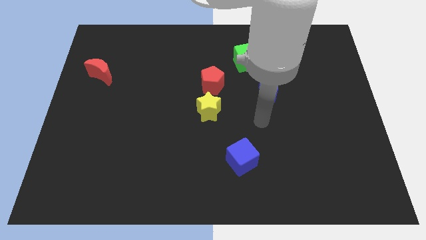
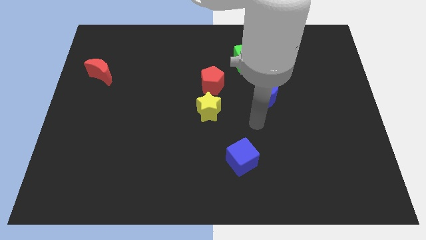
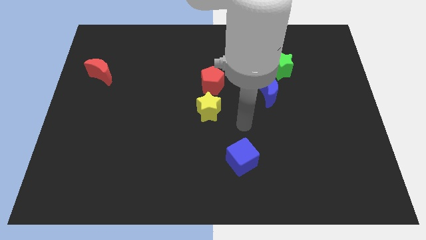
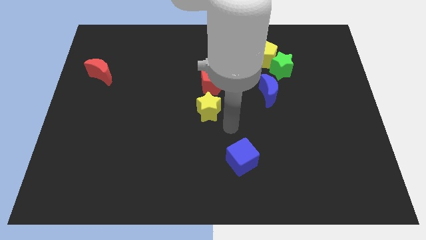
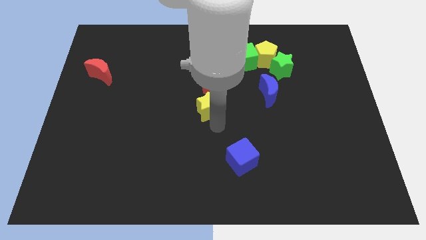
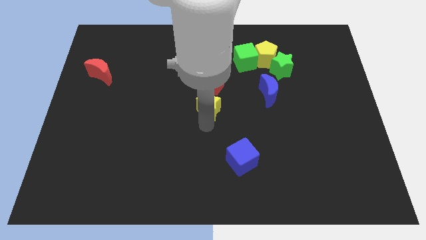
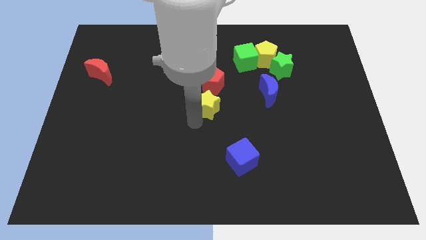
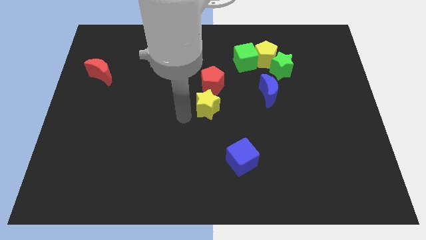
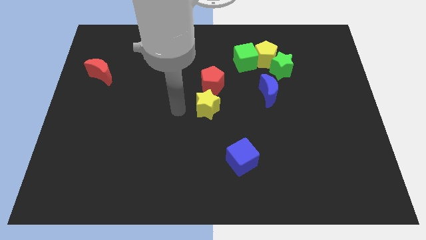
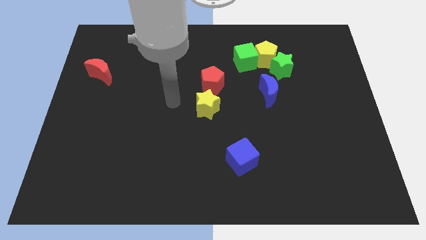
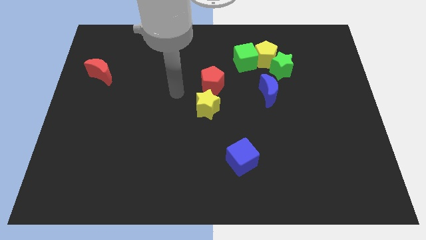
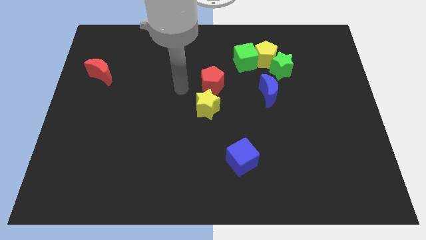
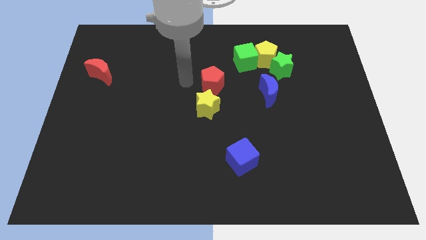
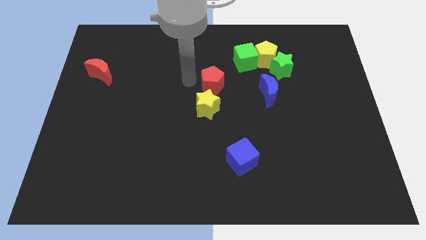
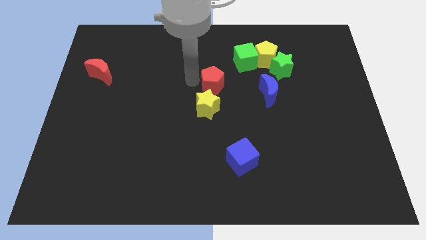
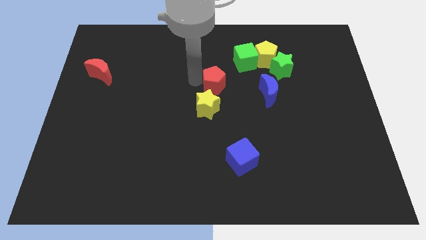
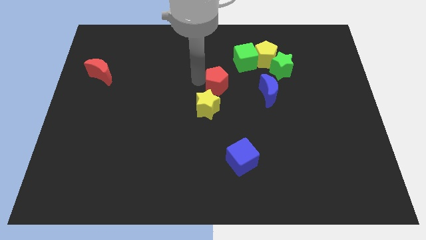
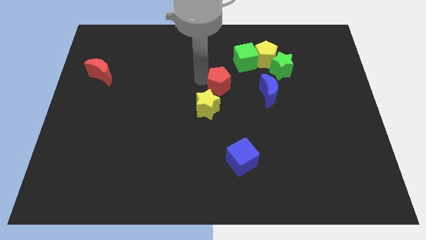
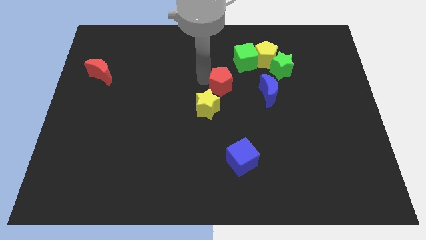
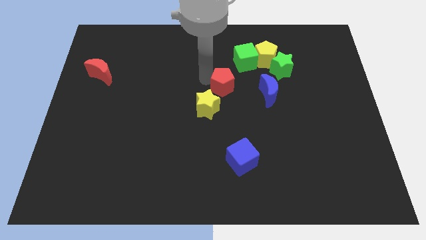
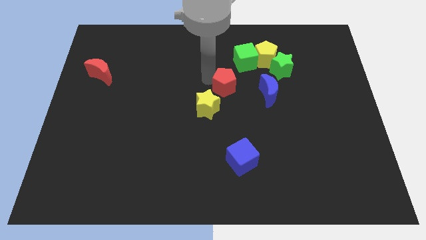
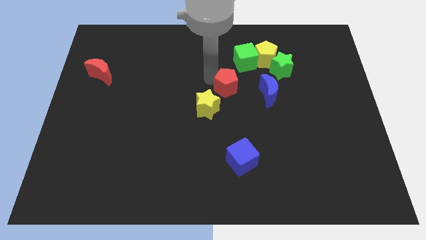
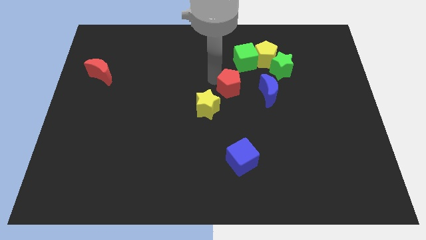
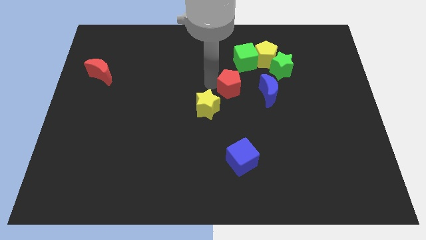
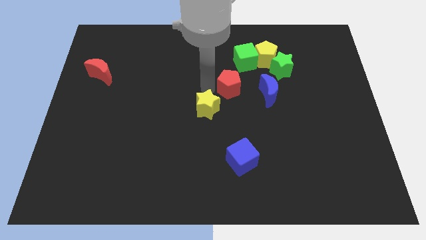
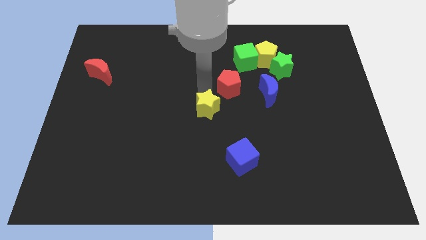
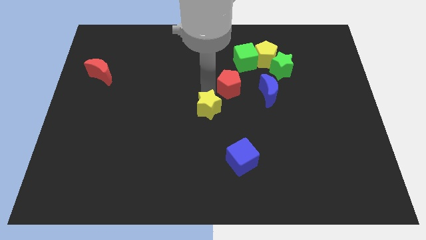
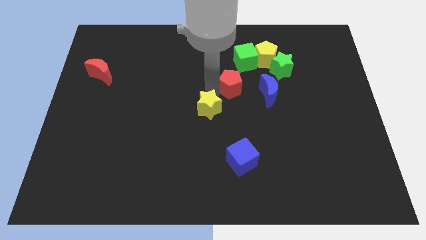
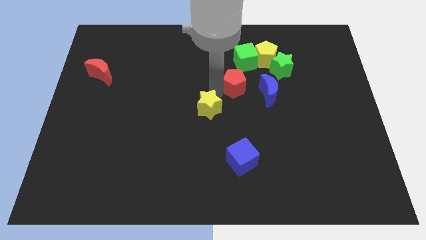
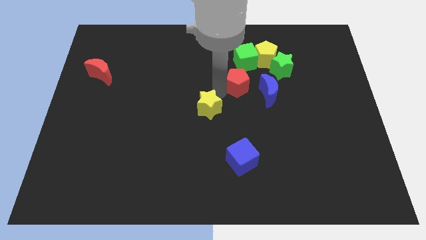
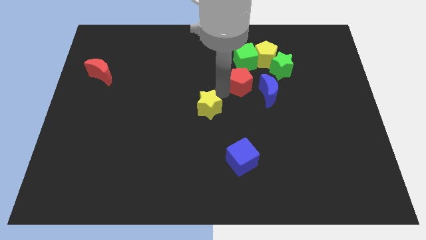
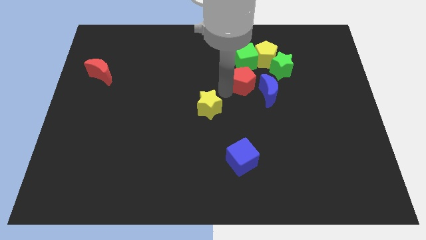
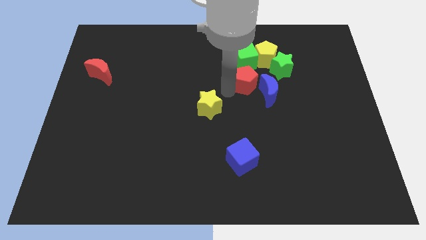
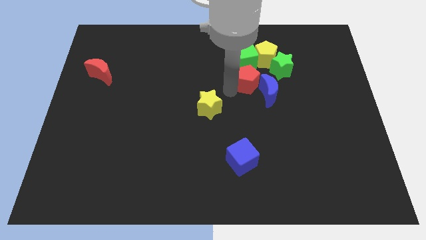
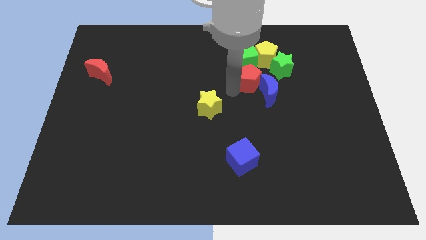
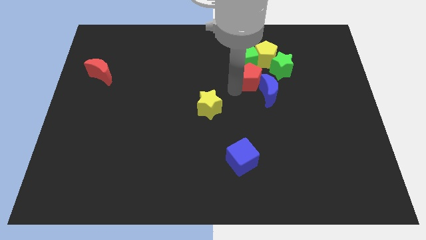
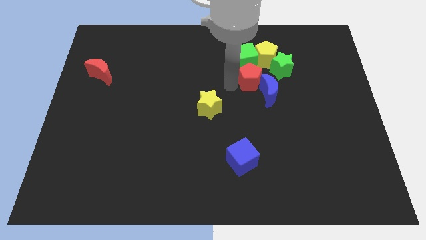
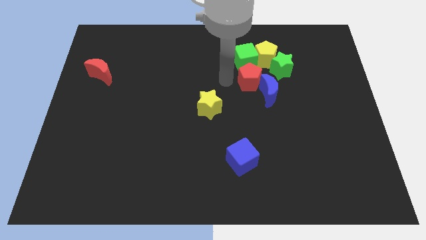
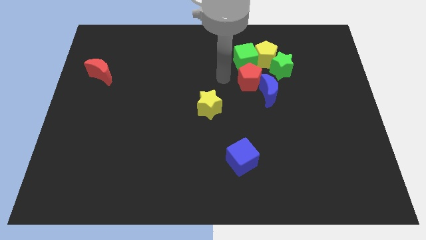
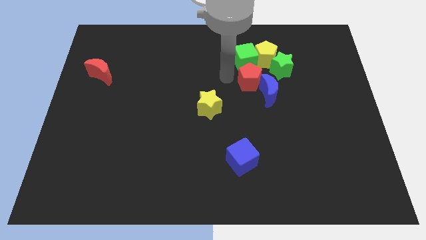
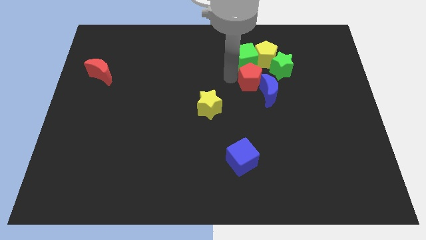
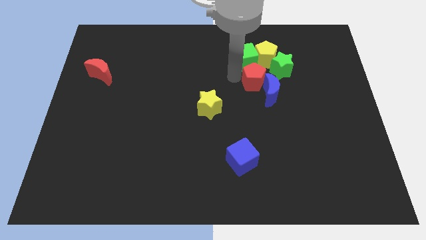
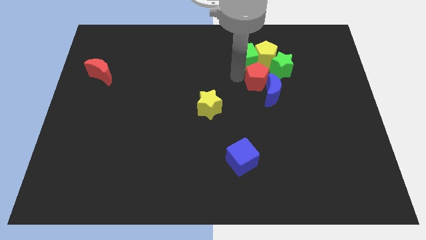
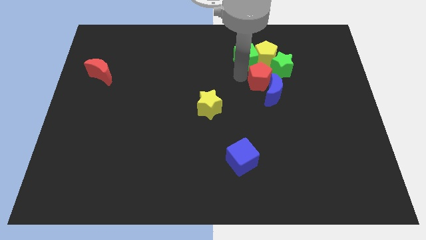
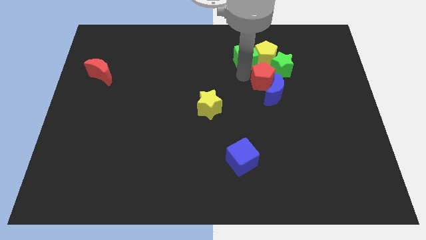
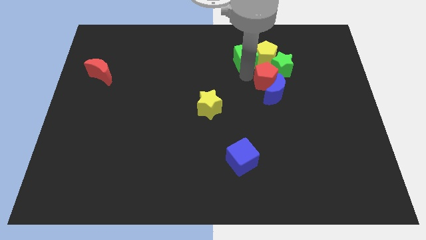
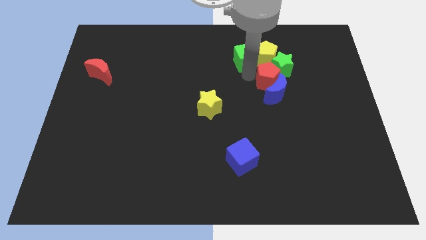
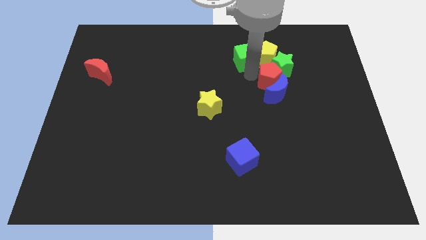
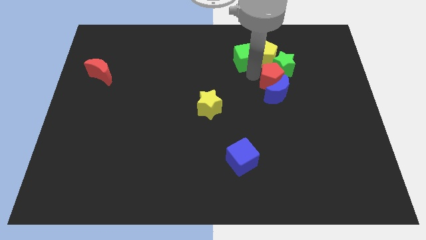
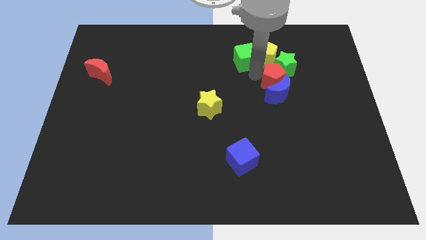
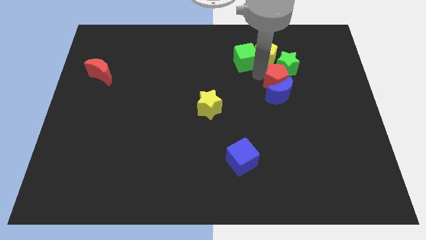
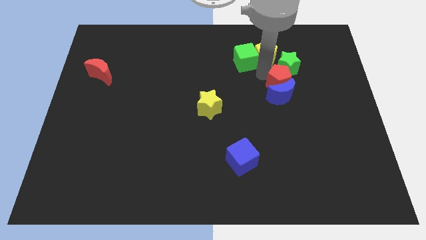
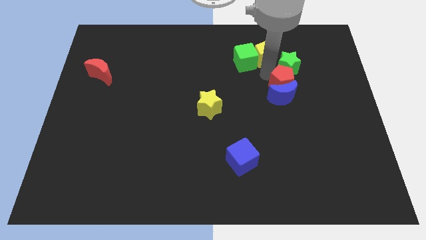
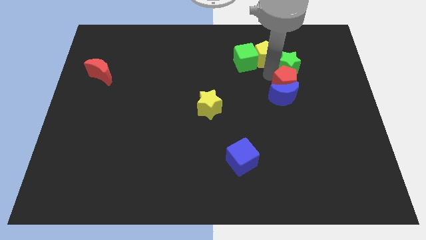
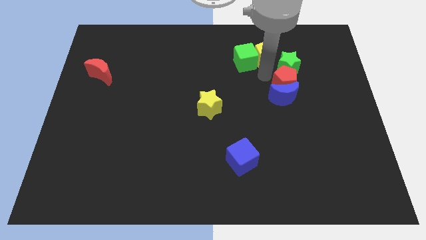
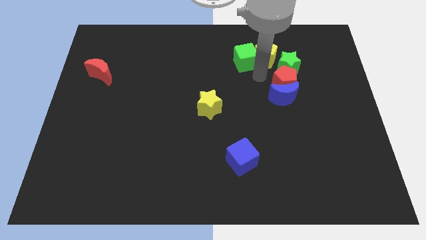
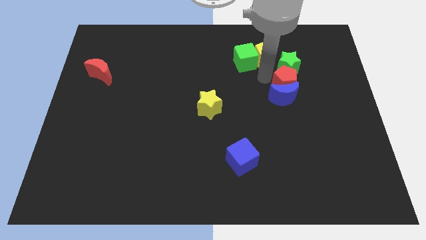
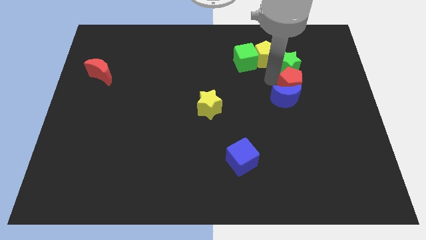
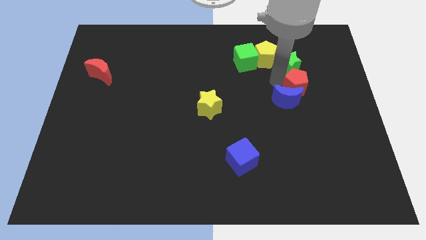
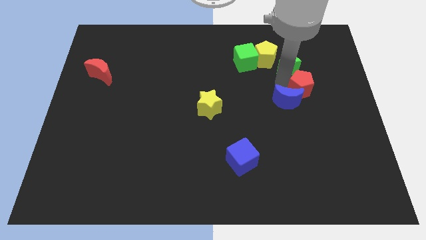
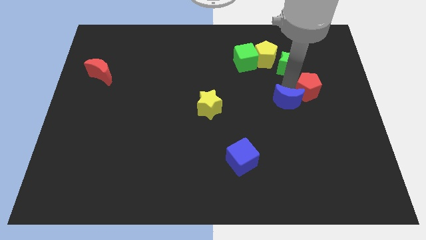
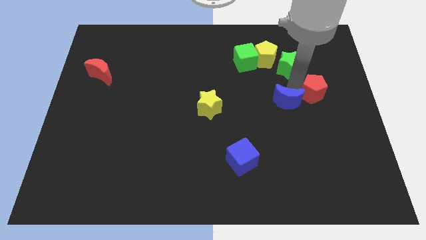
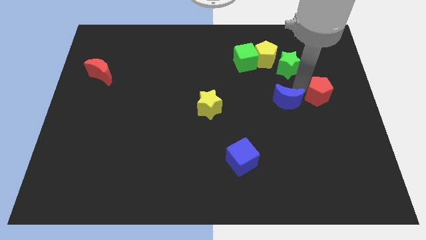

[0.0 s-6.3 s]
move the red pentagon to the right side of the board

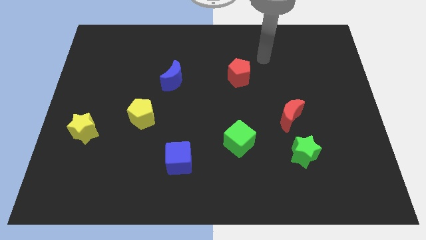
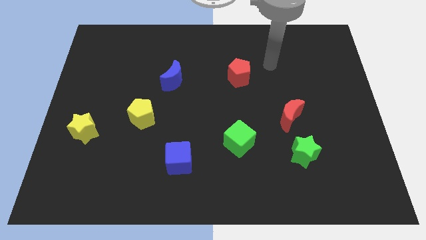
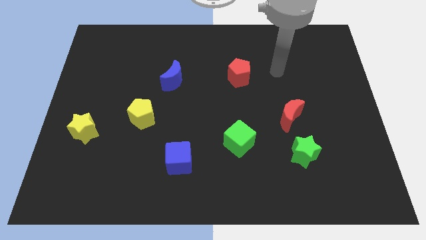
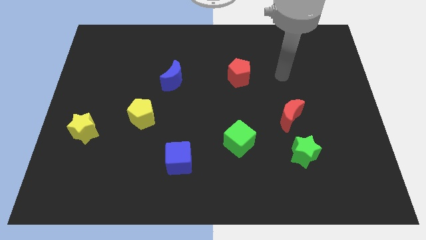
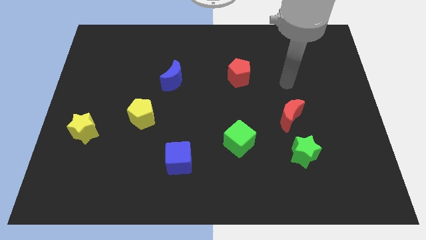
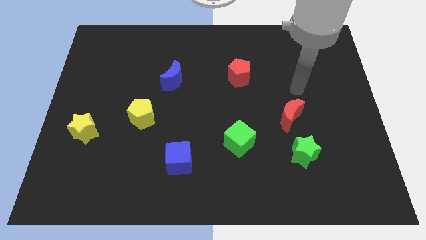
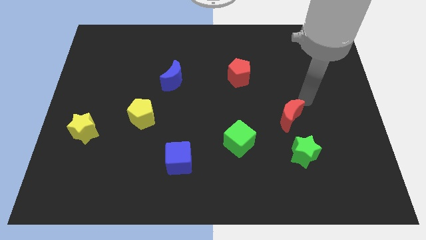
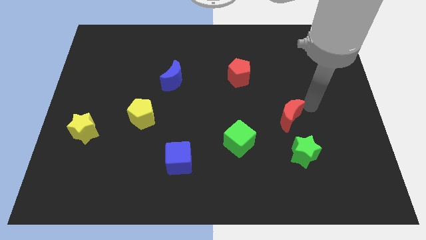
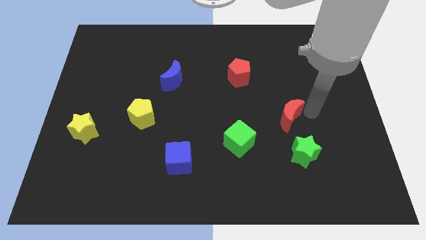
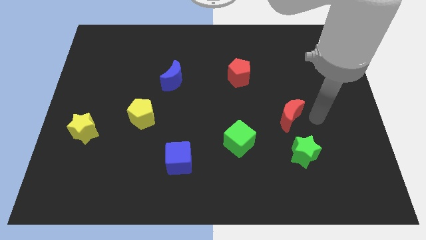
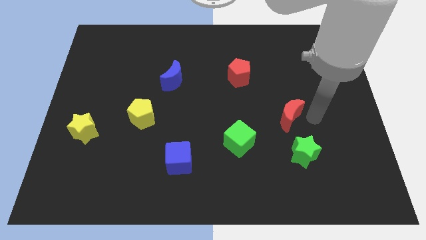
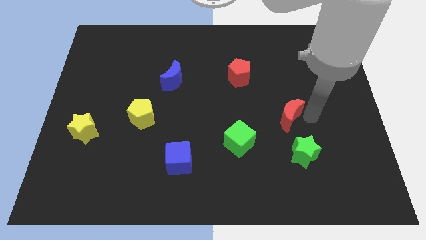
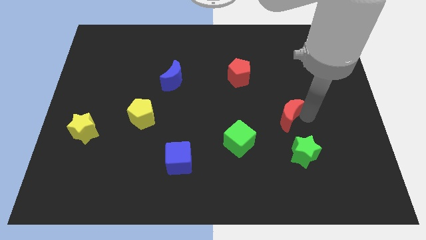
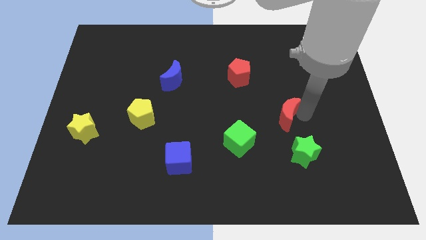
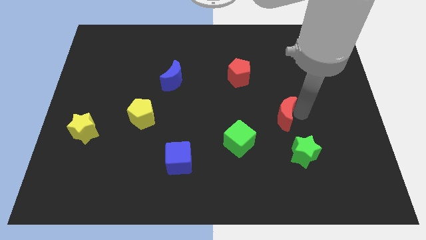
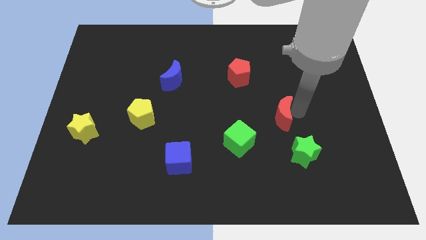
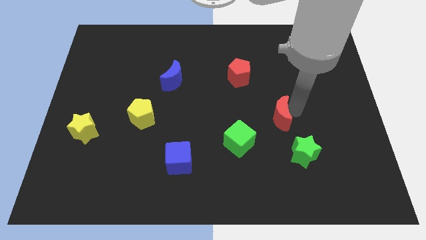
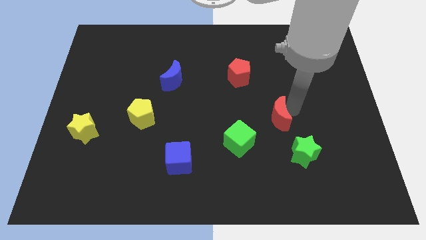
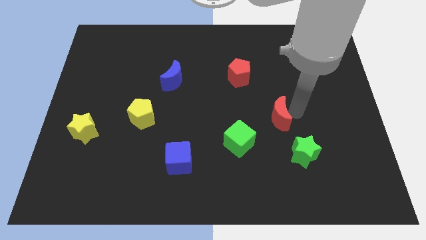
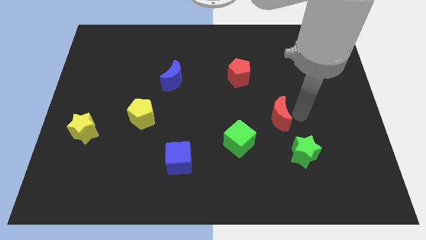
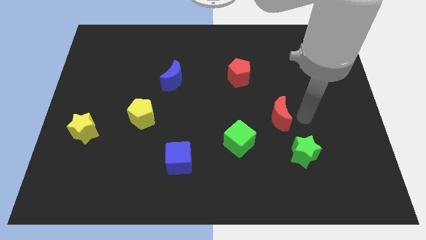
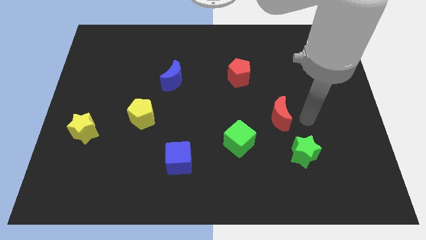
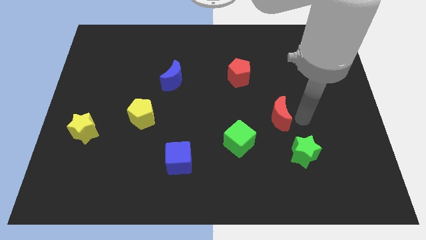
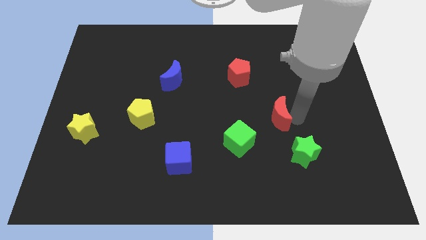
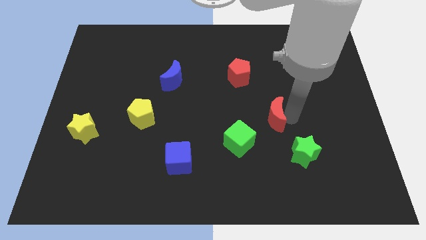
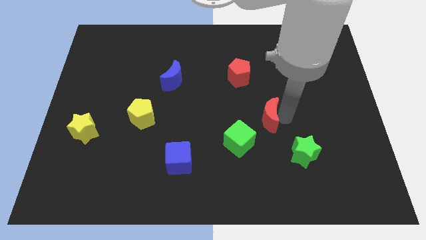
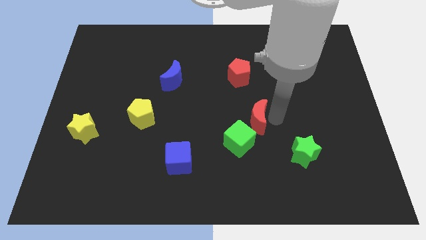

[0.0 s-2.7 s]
put the red moon to the center
